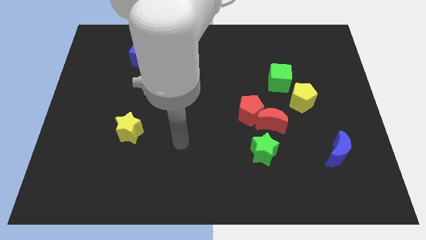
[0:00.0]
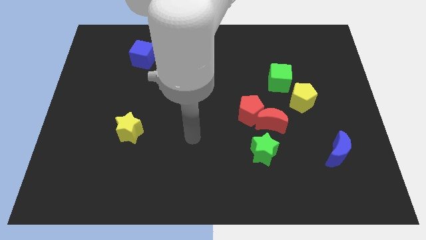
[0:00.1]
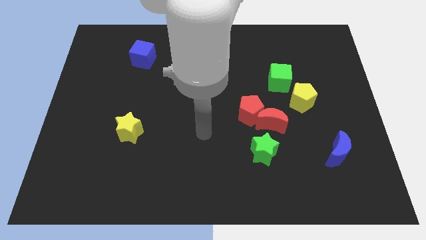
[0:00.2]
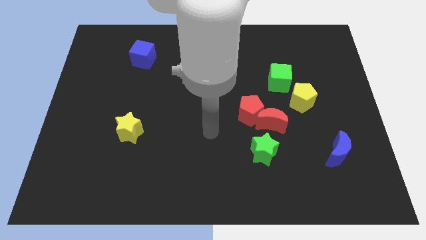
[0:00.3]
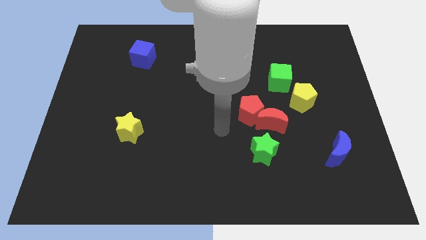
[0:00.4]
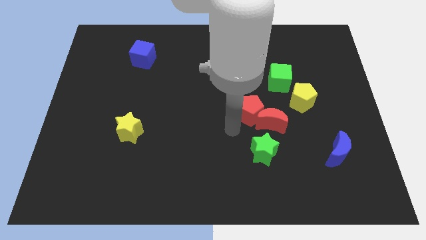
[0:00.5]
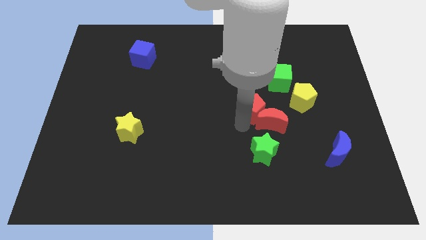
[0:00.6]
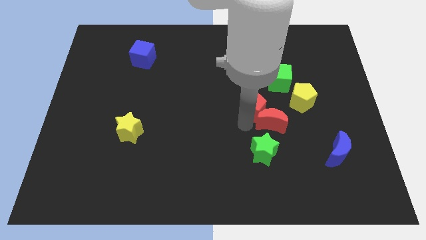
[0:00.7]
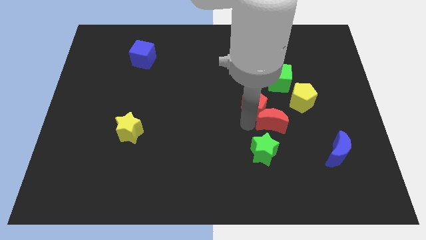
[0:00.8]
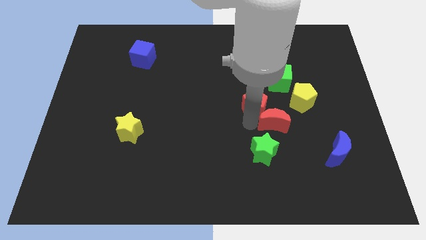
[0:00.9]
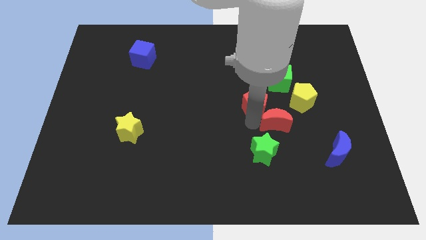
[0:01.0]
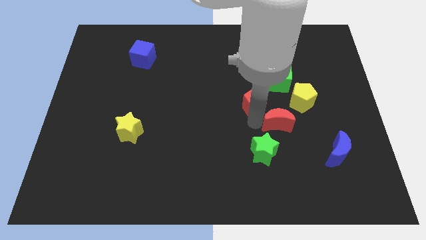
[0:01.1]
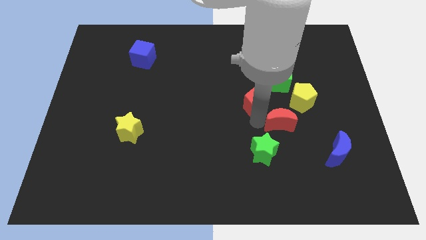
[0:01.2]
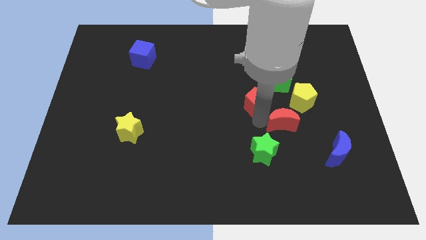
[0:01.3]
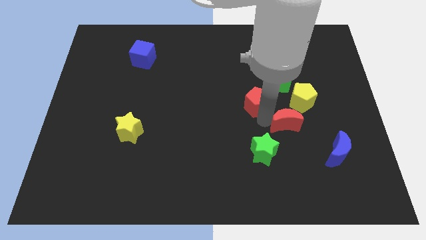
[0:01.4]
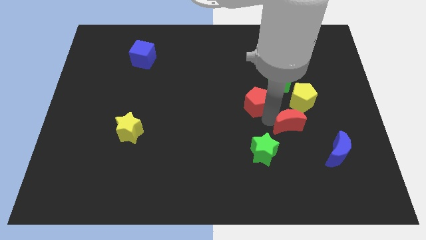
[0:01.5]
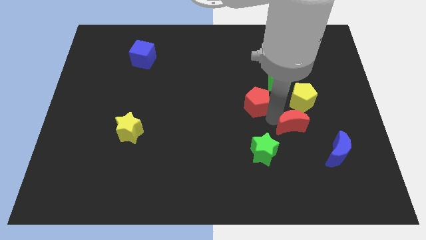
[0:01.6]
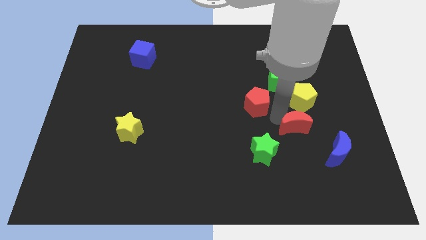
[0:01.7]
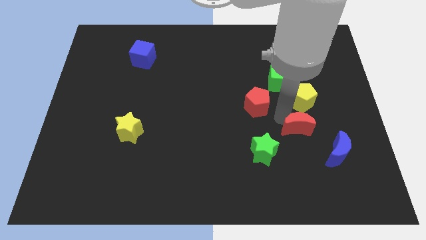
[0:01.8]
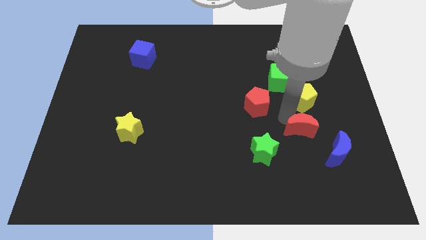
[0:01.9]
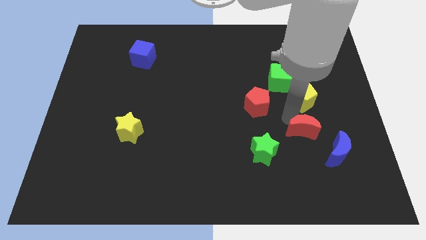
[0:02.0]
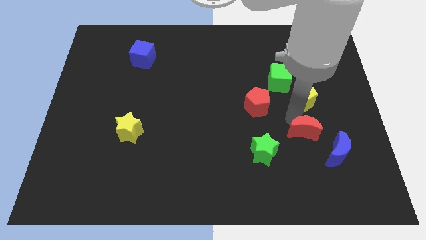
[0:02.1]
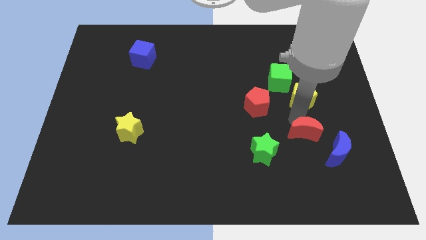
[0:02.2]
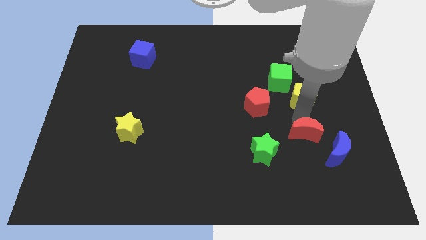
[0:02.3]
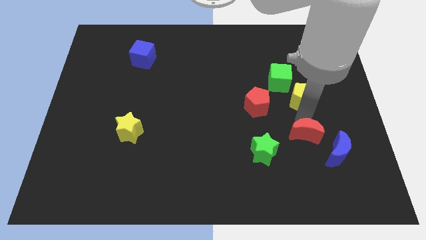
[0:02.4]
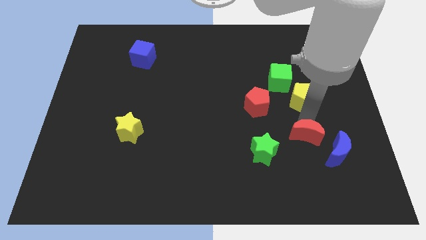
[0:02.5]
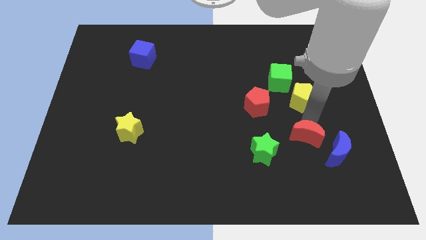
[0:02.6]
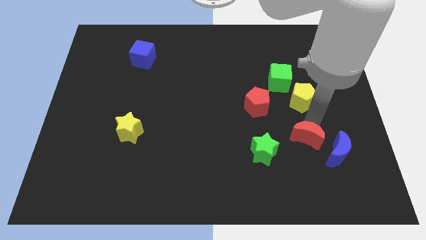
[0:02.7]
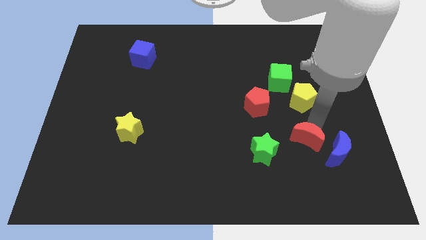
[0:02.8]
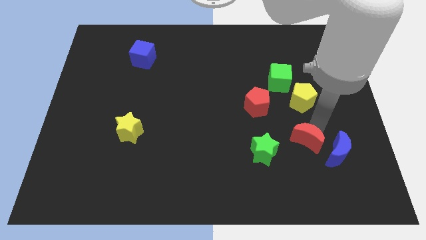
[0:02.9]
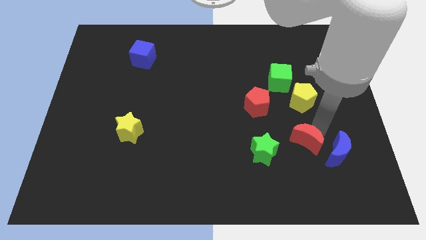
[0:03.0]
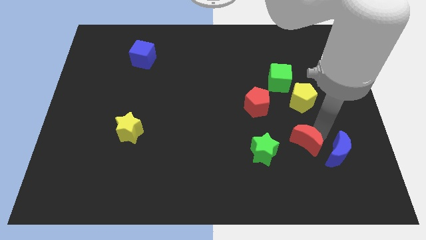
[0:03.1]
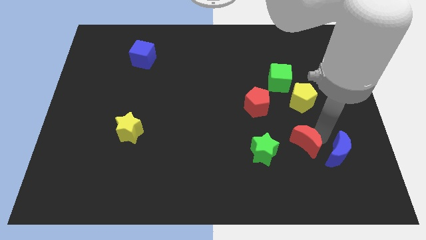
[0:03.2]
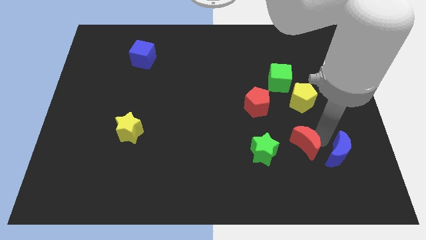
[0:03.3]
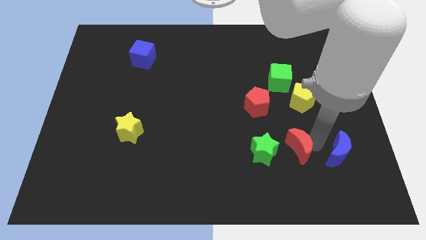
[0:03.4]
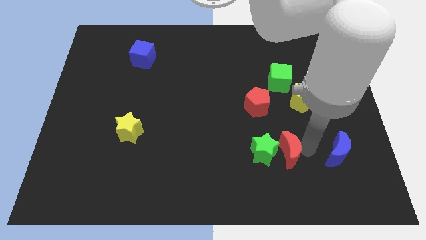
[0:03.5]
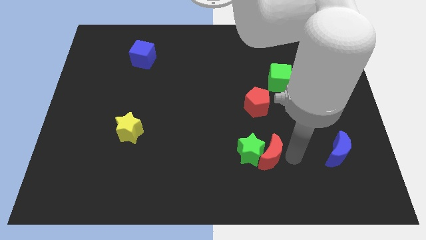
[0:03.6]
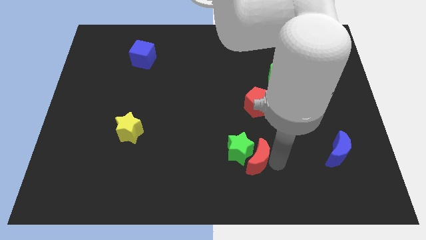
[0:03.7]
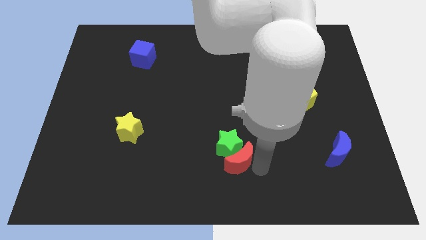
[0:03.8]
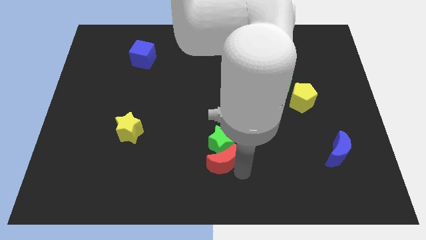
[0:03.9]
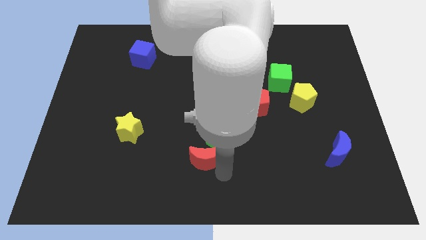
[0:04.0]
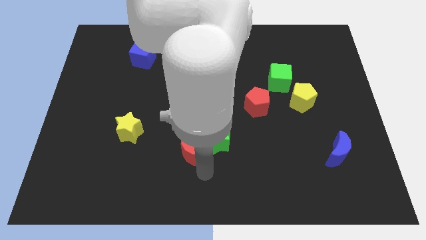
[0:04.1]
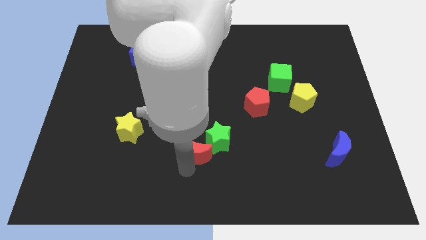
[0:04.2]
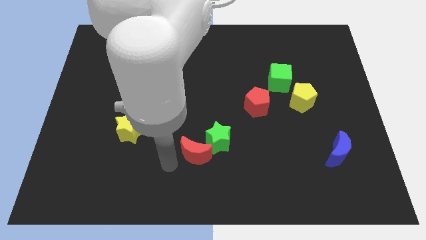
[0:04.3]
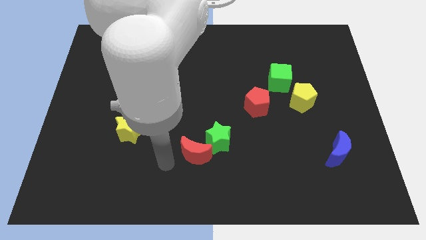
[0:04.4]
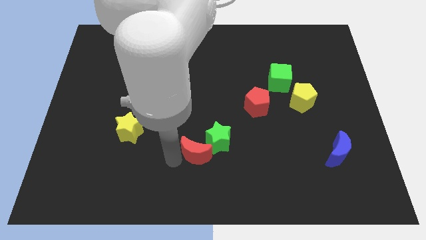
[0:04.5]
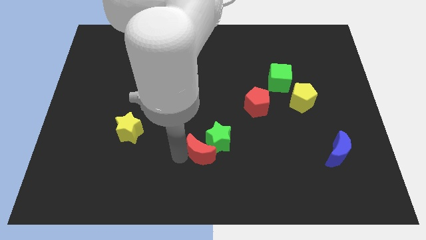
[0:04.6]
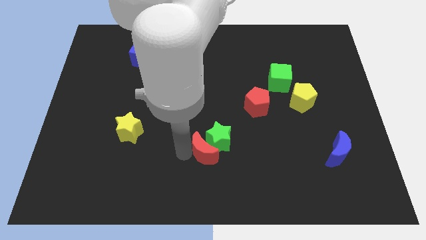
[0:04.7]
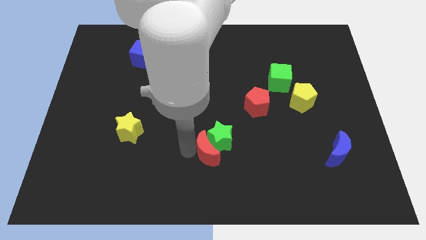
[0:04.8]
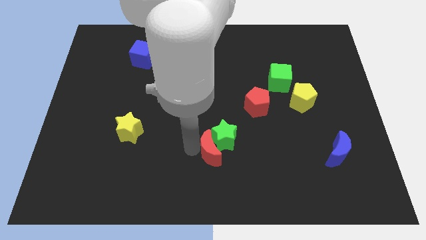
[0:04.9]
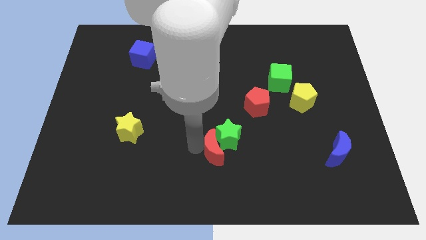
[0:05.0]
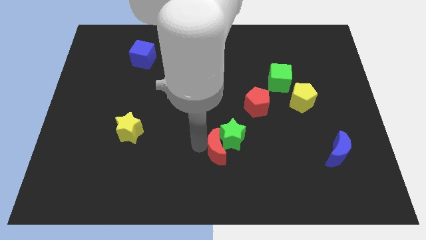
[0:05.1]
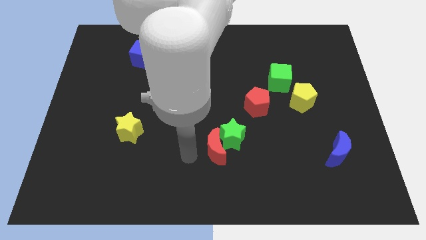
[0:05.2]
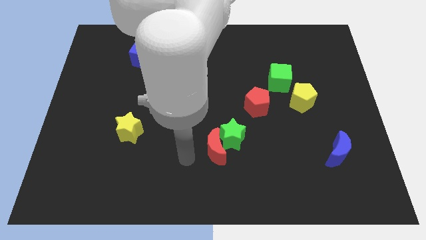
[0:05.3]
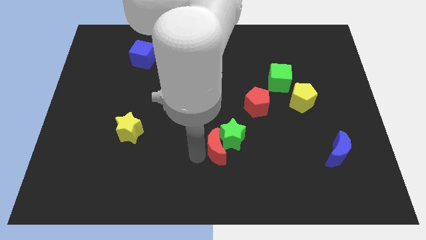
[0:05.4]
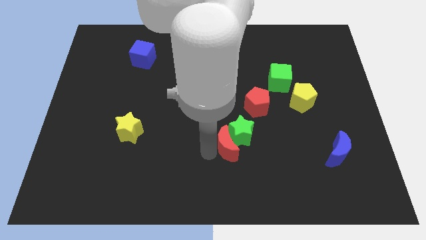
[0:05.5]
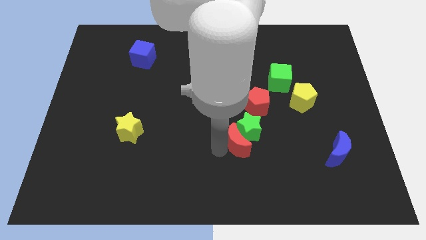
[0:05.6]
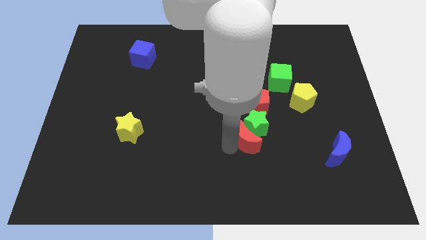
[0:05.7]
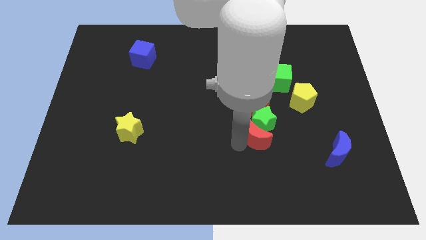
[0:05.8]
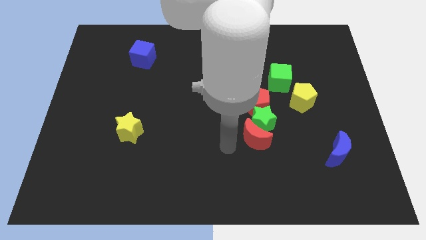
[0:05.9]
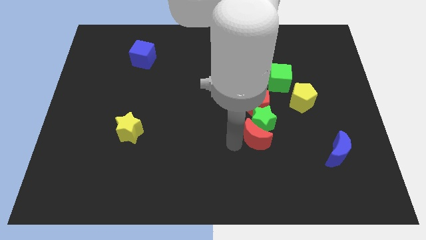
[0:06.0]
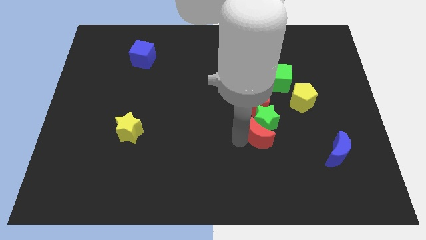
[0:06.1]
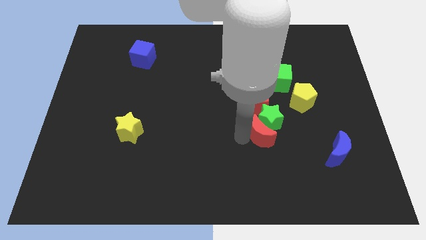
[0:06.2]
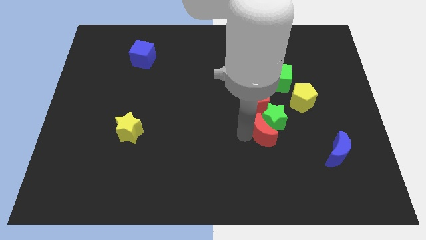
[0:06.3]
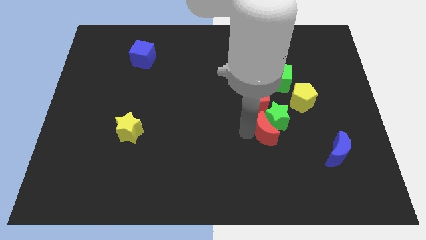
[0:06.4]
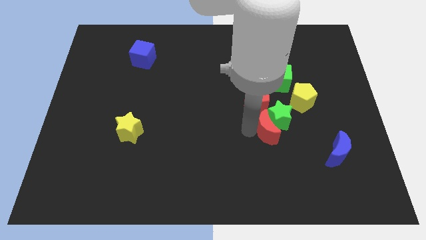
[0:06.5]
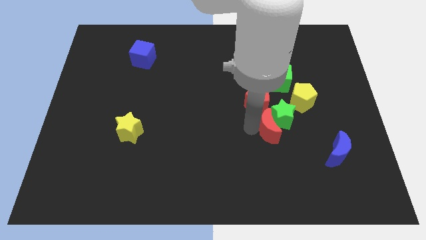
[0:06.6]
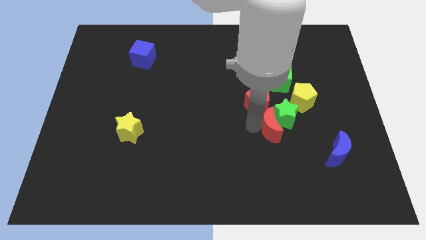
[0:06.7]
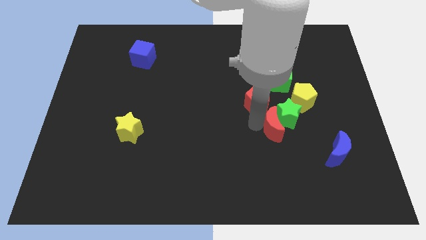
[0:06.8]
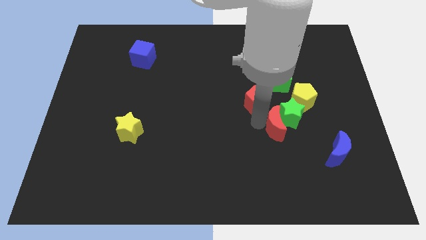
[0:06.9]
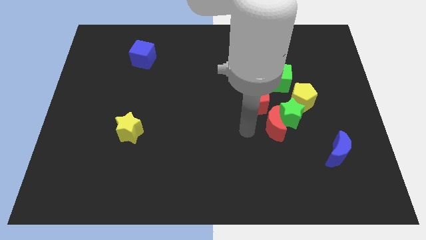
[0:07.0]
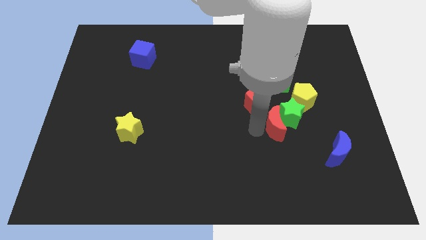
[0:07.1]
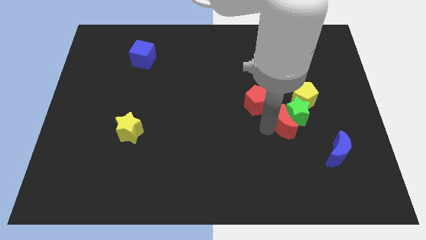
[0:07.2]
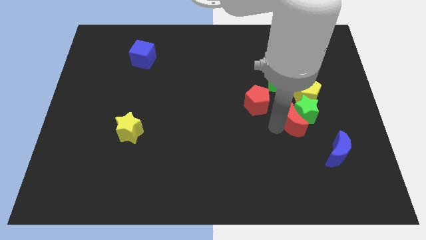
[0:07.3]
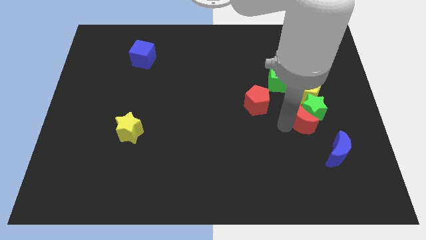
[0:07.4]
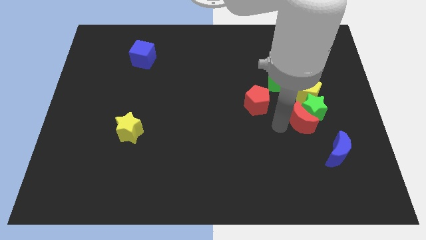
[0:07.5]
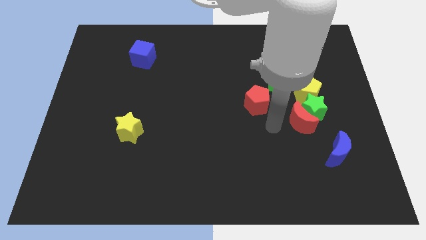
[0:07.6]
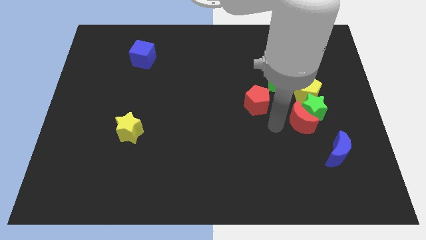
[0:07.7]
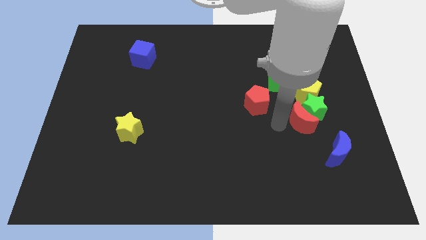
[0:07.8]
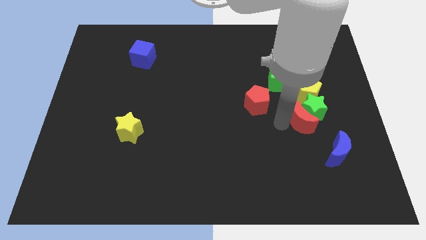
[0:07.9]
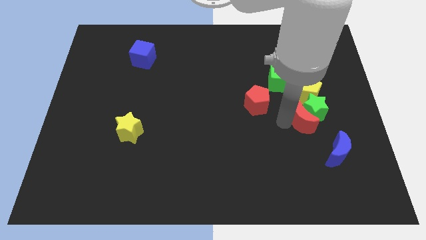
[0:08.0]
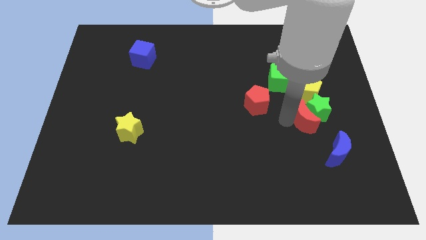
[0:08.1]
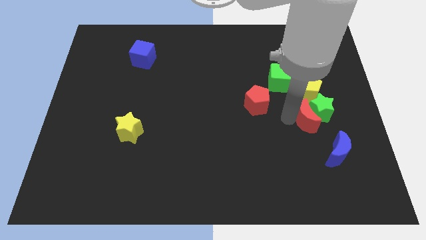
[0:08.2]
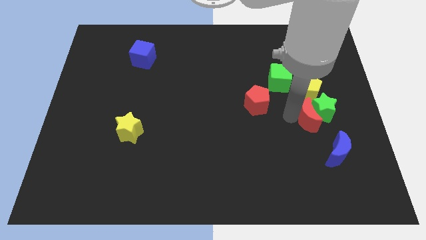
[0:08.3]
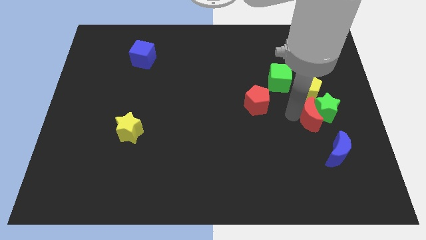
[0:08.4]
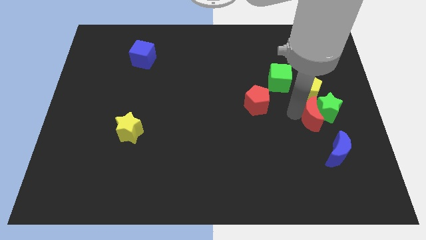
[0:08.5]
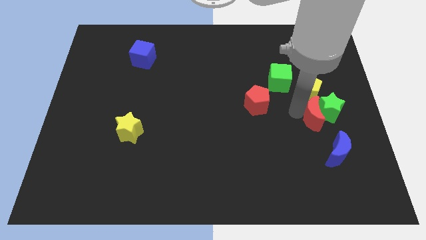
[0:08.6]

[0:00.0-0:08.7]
move the red moon slightly diagonally upwards and to the right
